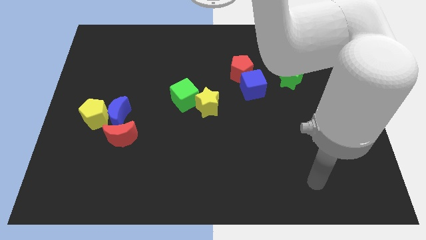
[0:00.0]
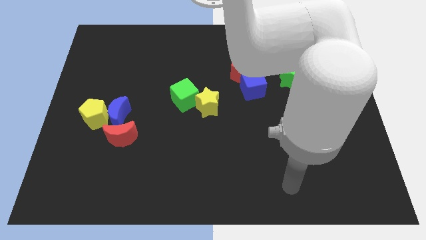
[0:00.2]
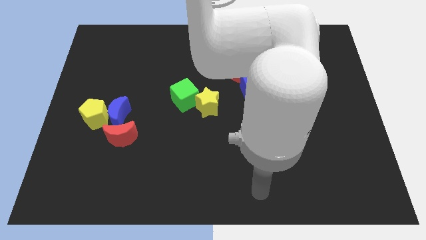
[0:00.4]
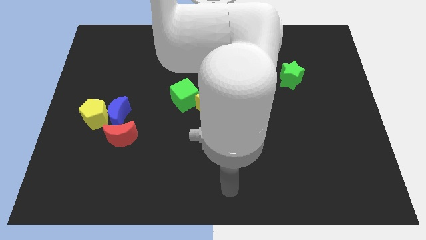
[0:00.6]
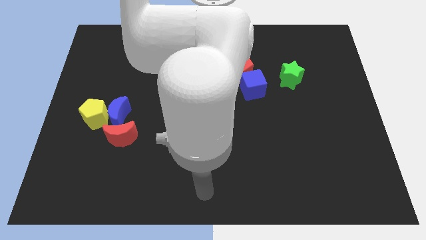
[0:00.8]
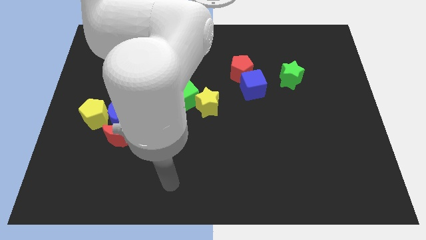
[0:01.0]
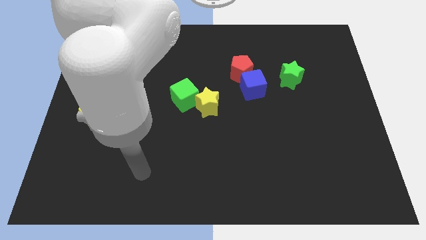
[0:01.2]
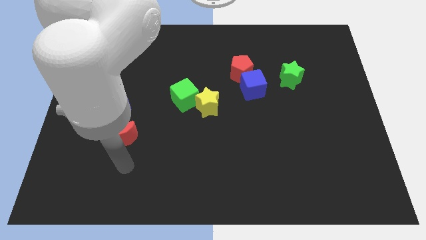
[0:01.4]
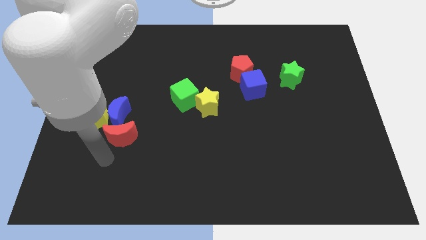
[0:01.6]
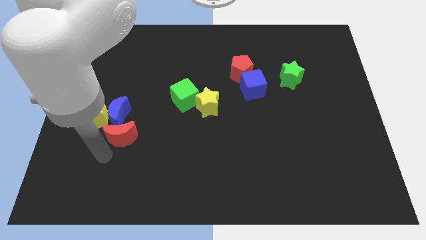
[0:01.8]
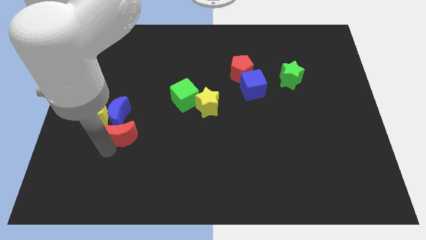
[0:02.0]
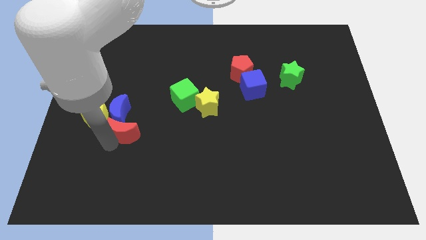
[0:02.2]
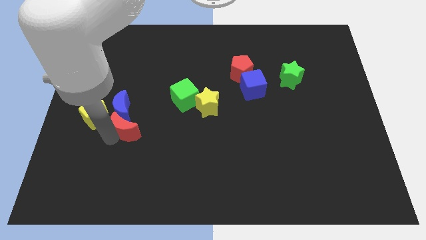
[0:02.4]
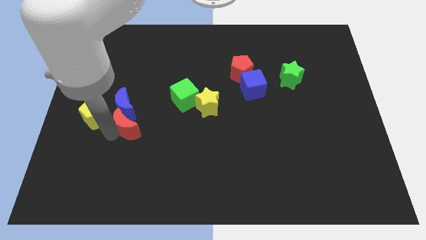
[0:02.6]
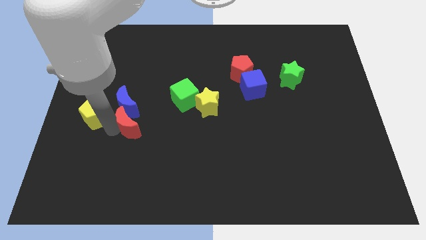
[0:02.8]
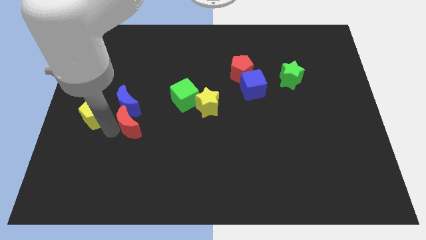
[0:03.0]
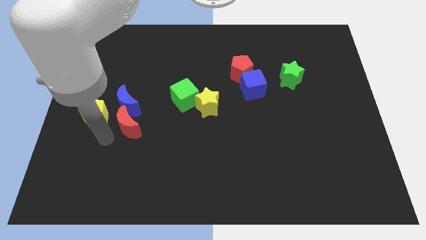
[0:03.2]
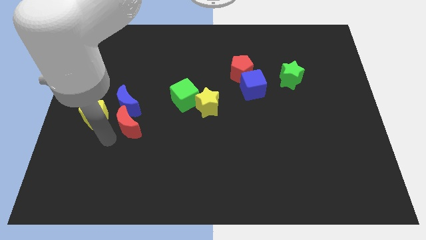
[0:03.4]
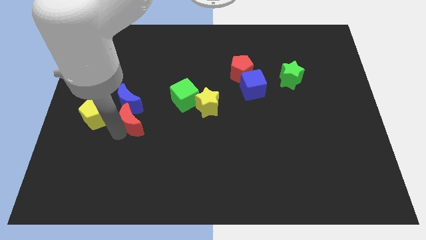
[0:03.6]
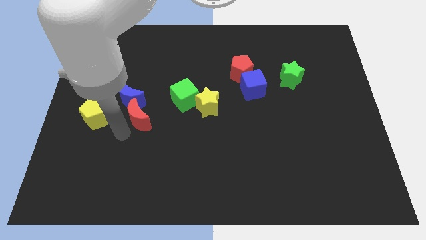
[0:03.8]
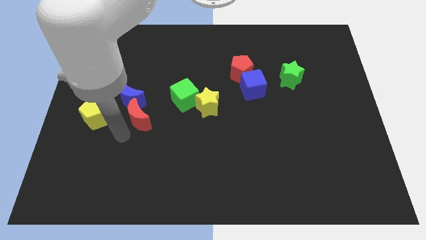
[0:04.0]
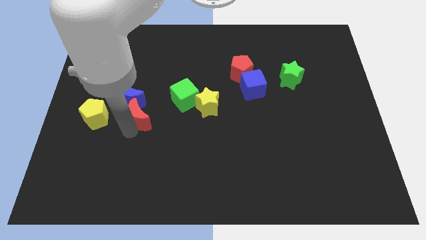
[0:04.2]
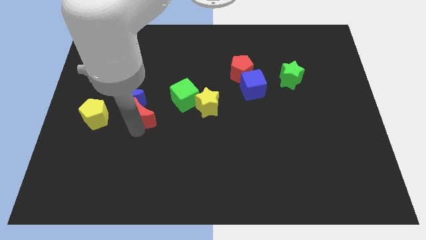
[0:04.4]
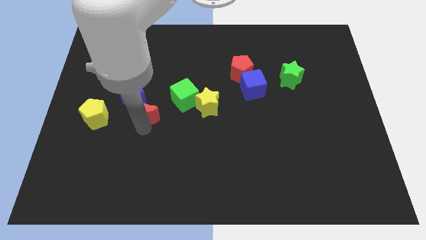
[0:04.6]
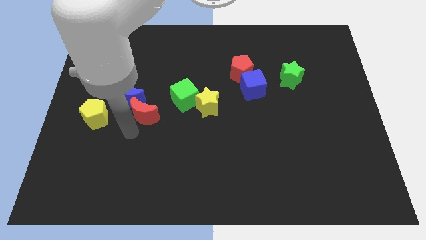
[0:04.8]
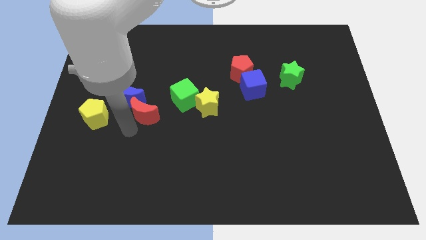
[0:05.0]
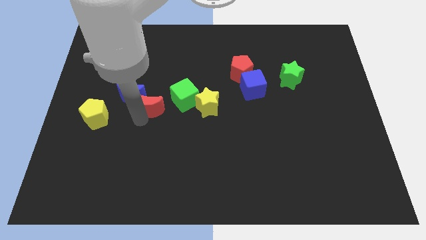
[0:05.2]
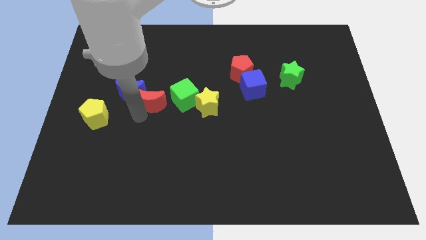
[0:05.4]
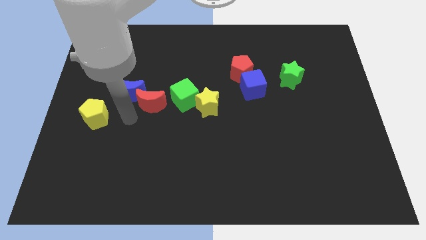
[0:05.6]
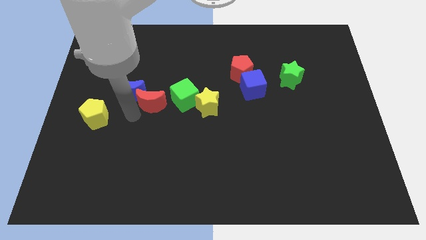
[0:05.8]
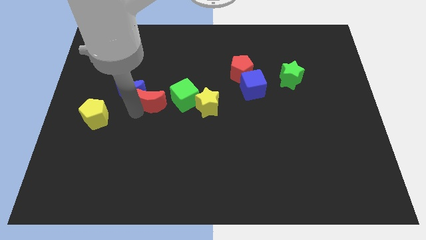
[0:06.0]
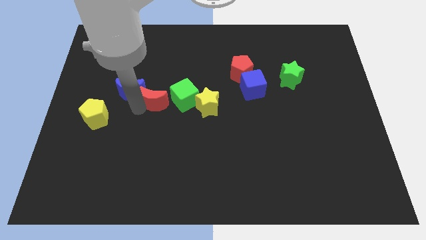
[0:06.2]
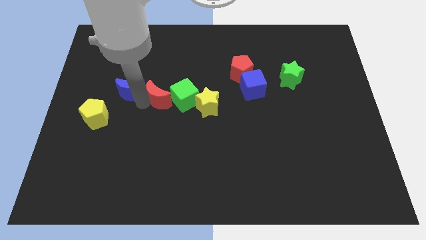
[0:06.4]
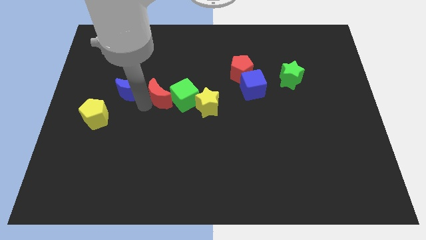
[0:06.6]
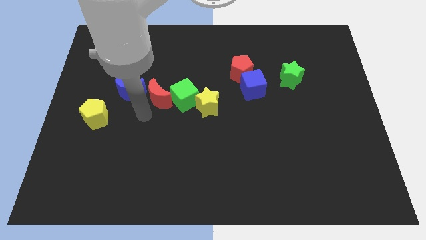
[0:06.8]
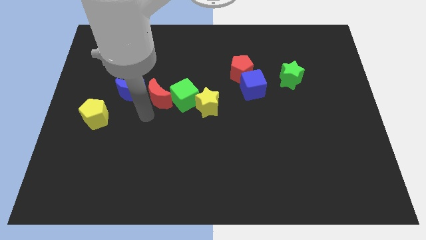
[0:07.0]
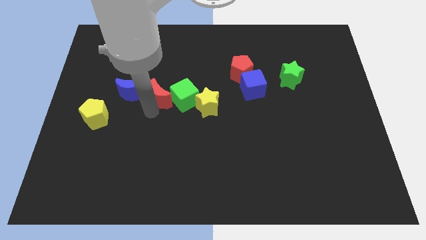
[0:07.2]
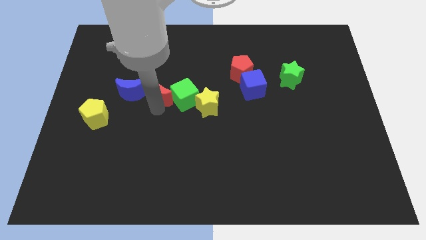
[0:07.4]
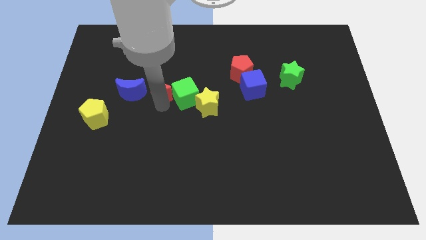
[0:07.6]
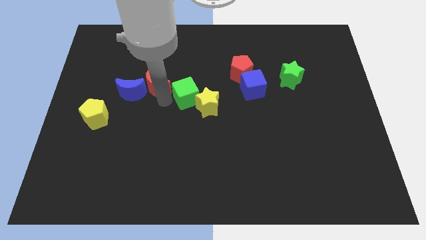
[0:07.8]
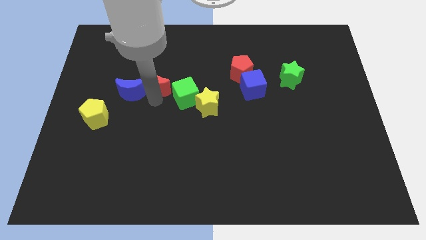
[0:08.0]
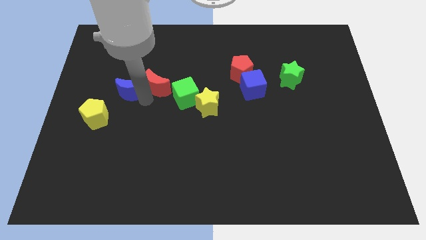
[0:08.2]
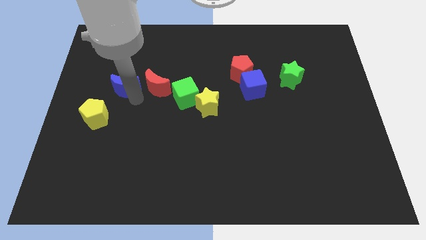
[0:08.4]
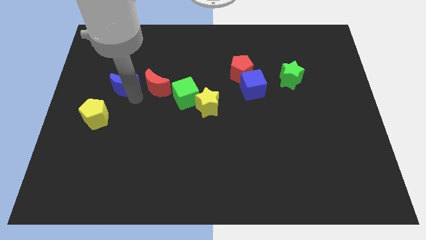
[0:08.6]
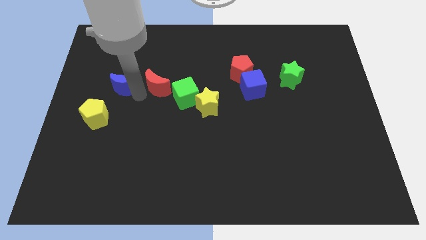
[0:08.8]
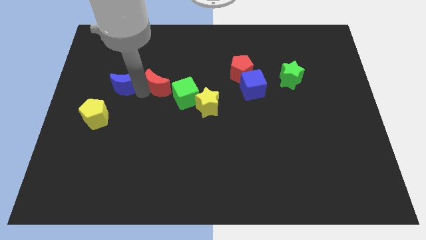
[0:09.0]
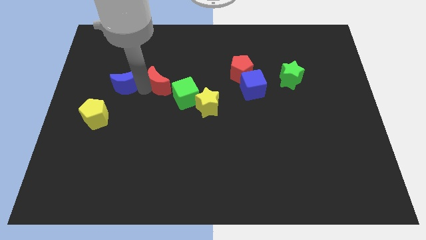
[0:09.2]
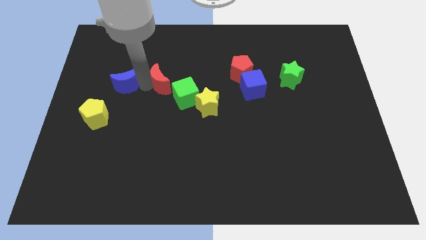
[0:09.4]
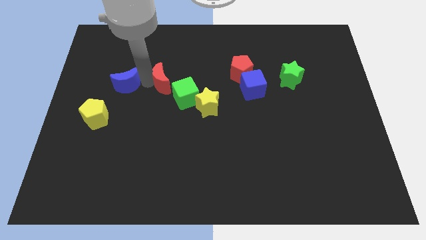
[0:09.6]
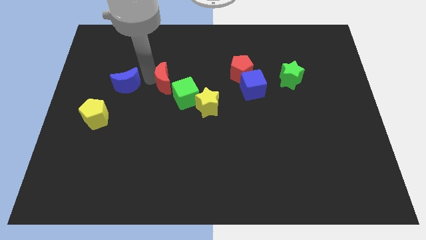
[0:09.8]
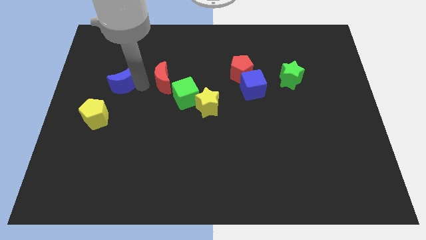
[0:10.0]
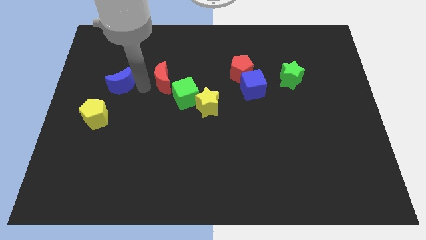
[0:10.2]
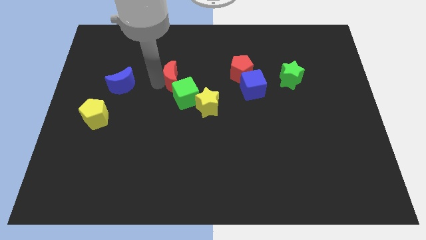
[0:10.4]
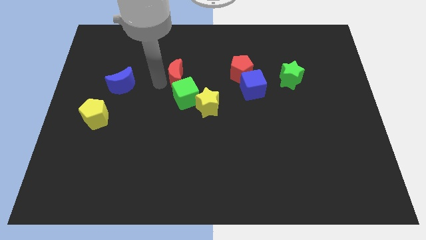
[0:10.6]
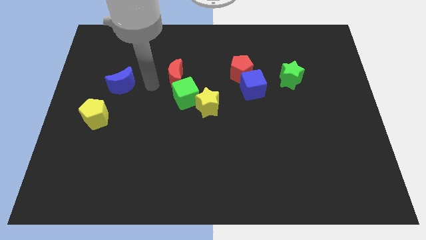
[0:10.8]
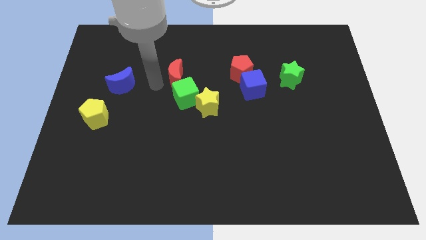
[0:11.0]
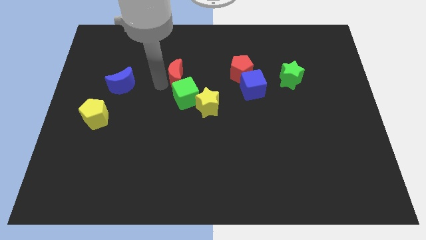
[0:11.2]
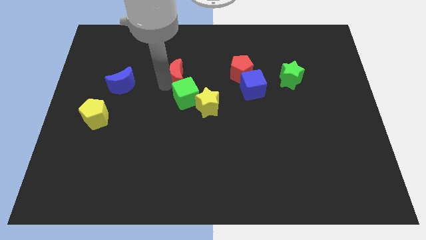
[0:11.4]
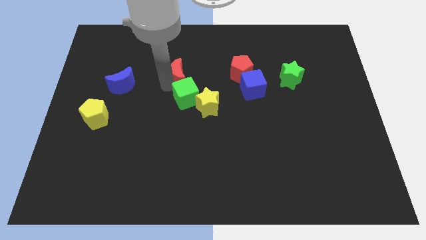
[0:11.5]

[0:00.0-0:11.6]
move the red moon upwards and right

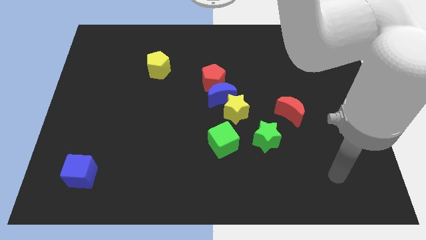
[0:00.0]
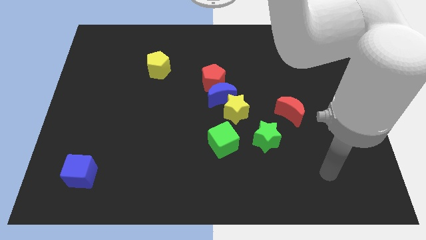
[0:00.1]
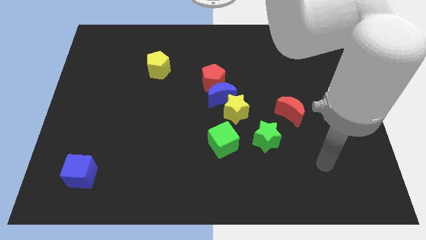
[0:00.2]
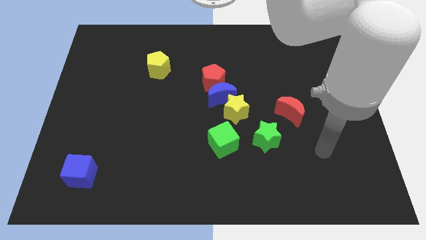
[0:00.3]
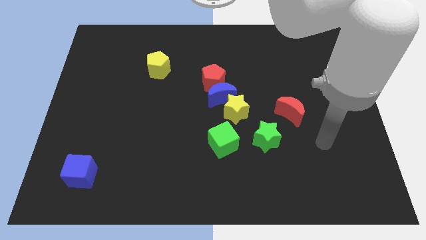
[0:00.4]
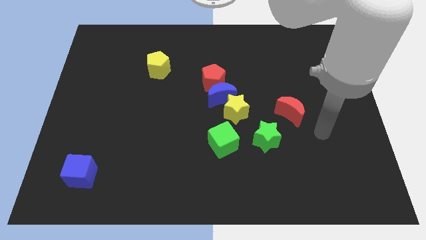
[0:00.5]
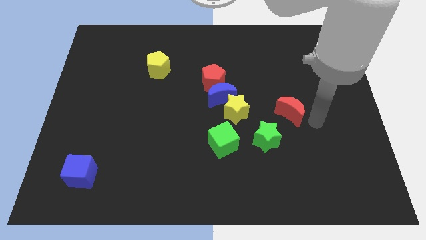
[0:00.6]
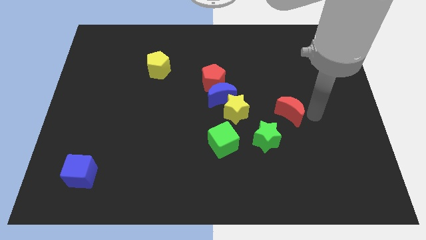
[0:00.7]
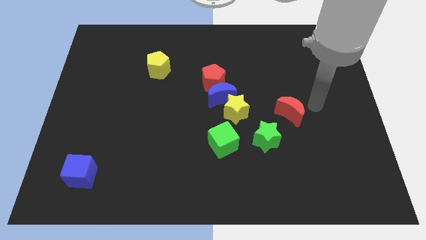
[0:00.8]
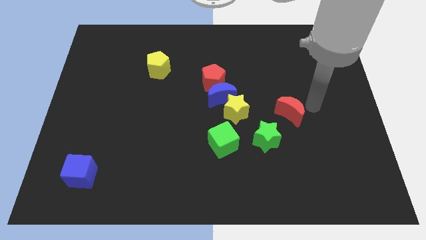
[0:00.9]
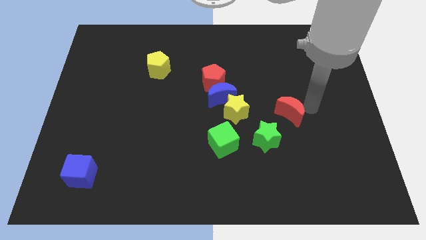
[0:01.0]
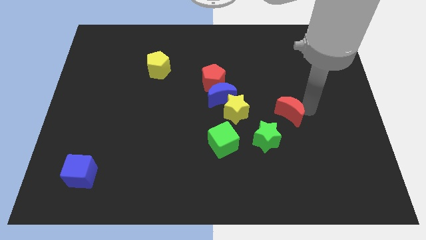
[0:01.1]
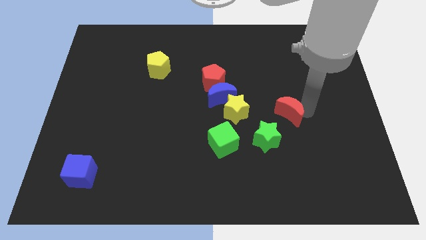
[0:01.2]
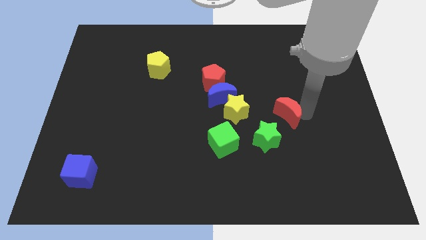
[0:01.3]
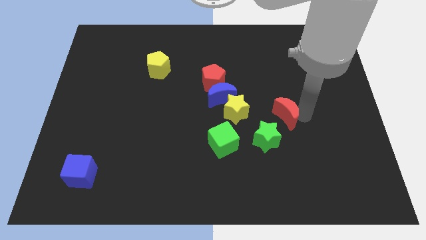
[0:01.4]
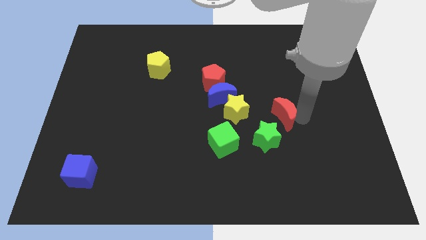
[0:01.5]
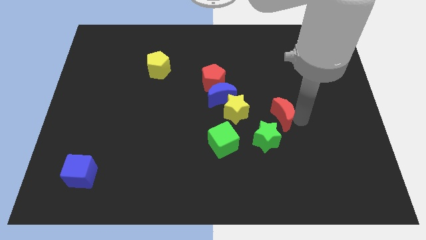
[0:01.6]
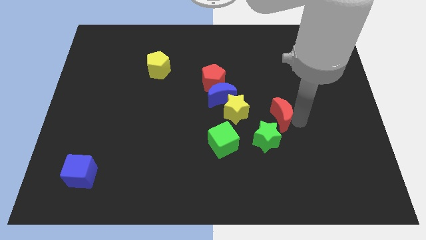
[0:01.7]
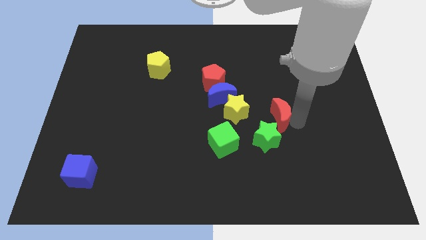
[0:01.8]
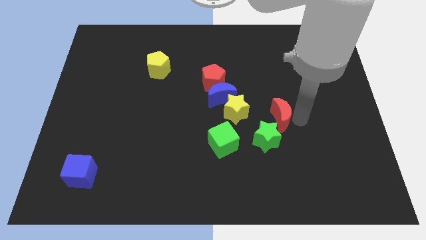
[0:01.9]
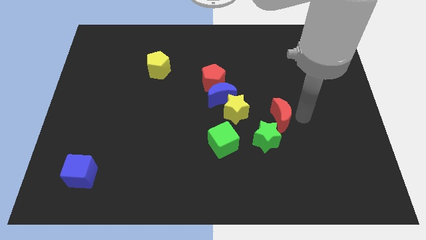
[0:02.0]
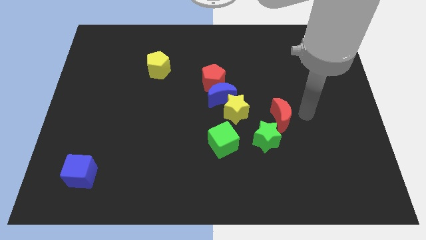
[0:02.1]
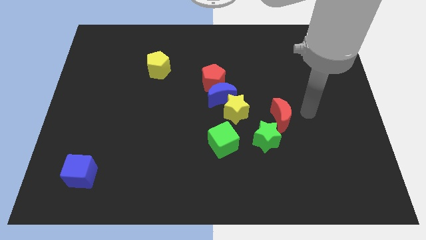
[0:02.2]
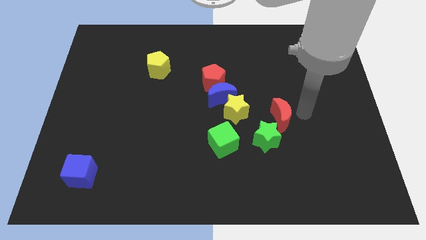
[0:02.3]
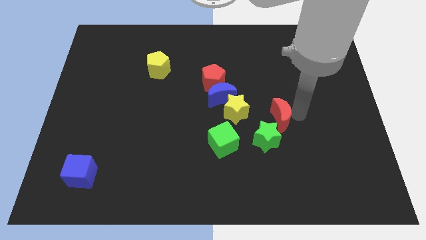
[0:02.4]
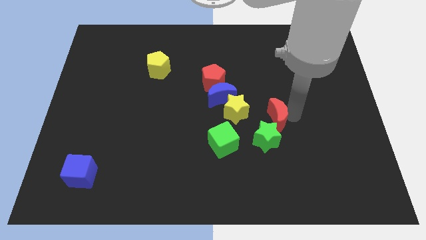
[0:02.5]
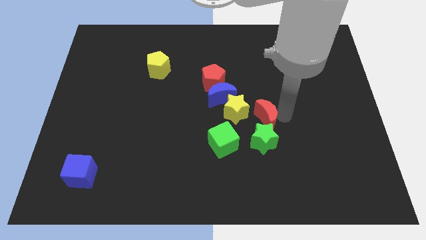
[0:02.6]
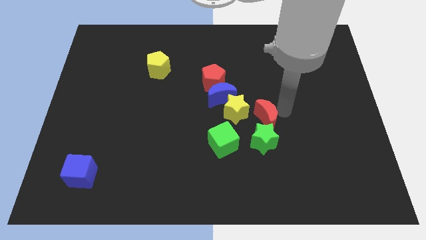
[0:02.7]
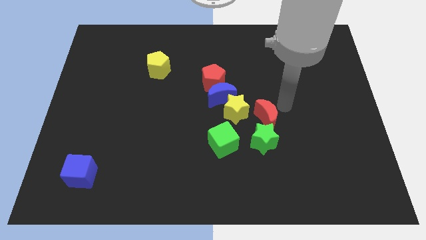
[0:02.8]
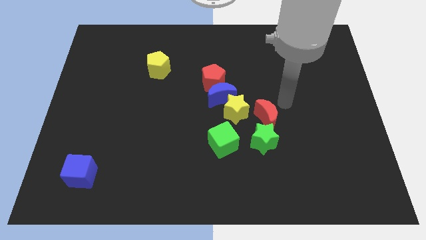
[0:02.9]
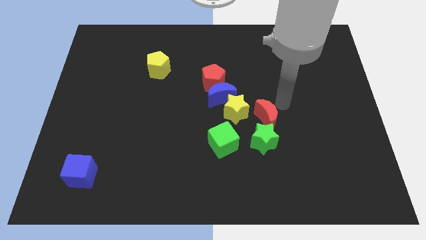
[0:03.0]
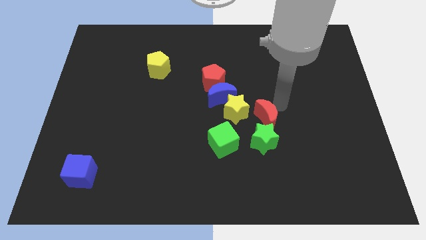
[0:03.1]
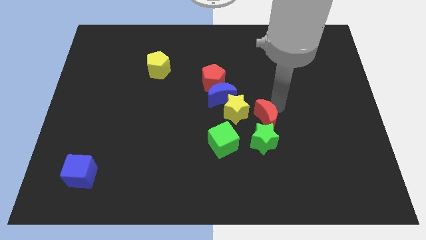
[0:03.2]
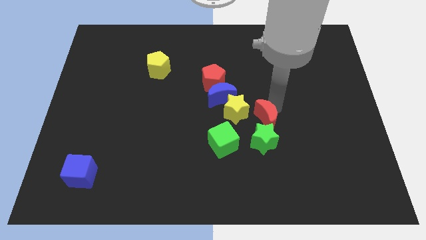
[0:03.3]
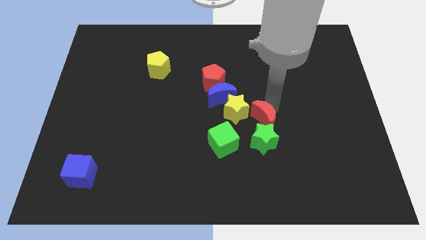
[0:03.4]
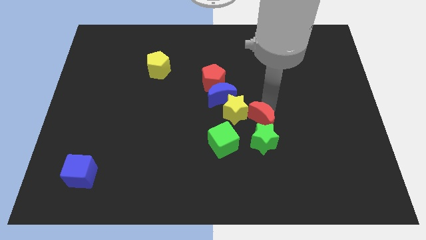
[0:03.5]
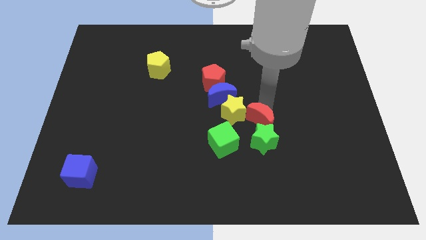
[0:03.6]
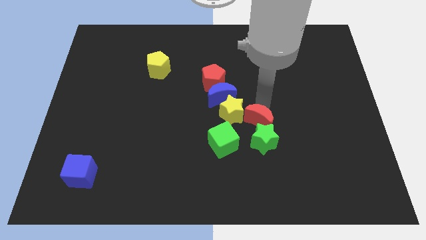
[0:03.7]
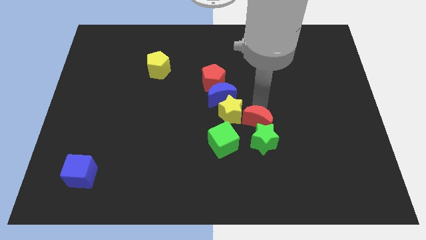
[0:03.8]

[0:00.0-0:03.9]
push the red moon a little bit down and then left
